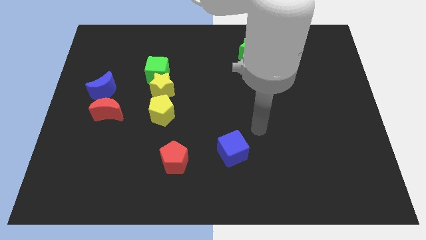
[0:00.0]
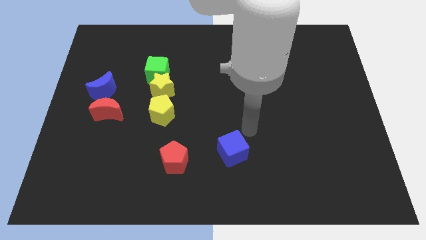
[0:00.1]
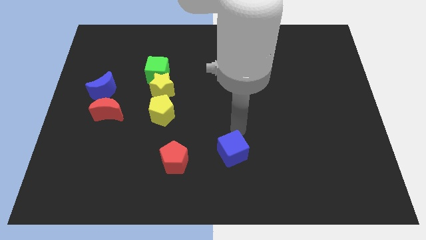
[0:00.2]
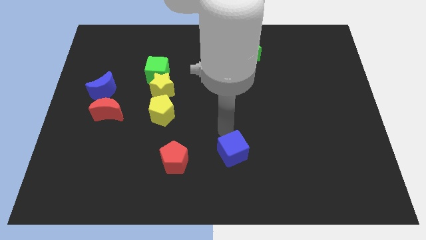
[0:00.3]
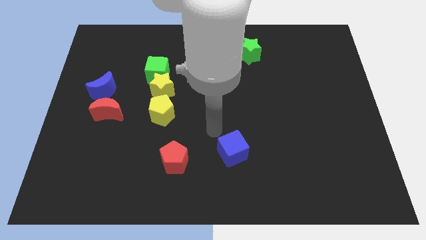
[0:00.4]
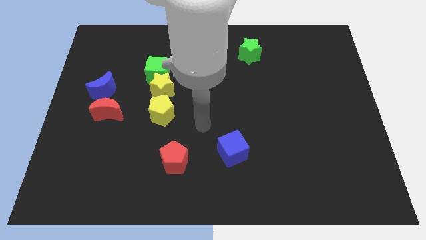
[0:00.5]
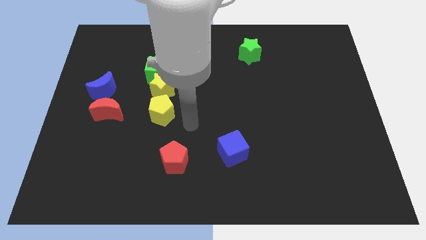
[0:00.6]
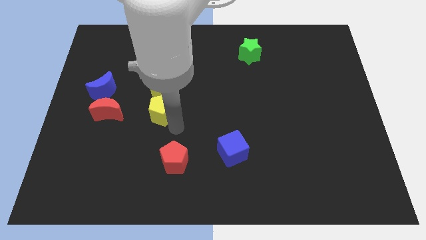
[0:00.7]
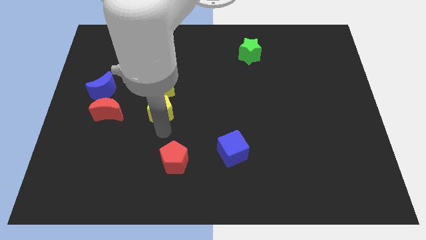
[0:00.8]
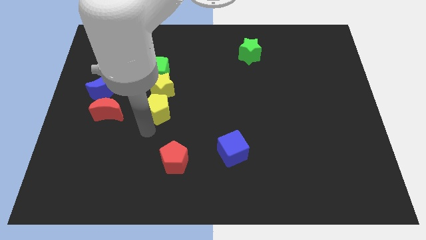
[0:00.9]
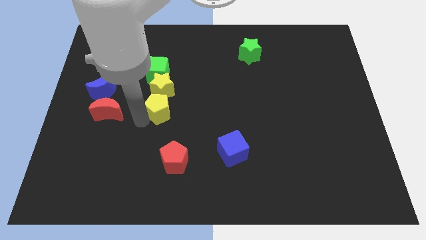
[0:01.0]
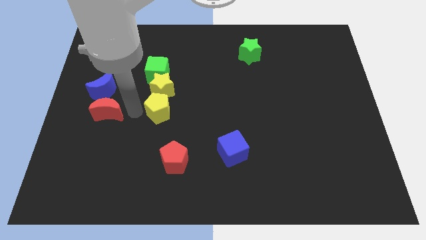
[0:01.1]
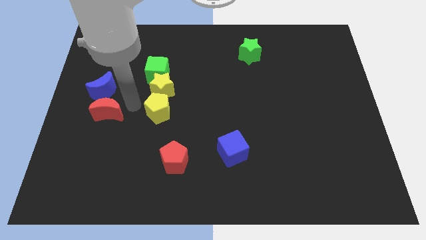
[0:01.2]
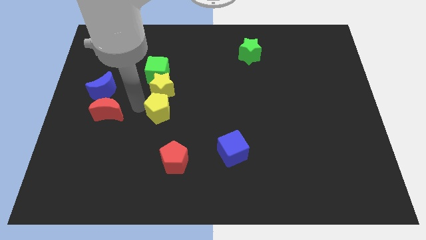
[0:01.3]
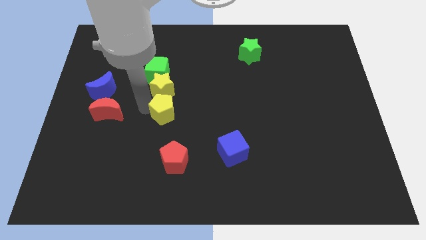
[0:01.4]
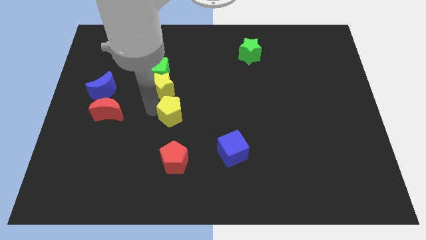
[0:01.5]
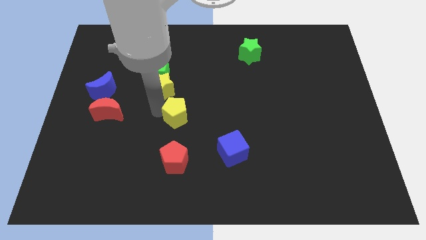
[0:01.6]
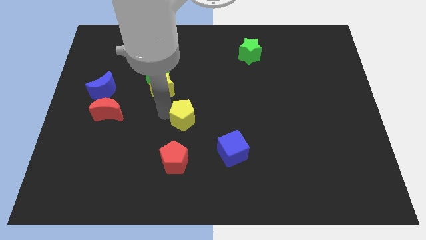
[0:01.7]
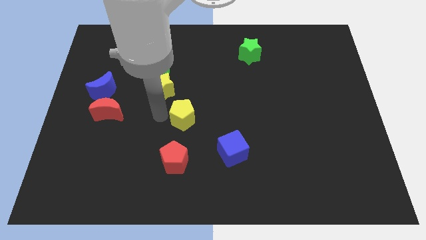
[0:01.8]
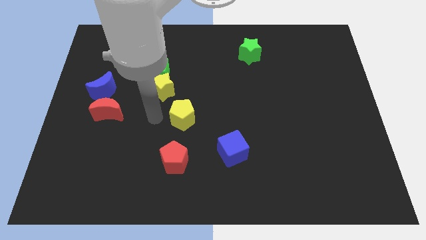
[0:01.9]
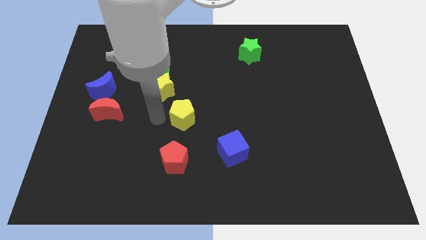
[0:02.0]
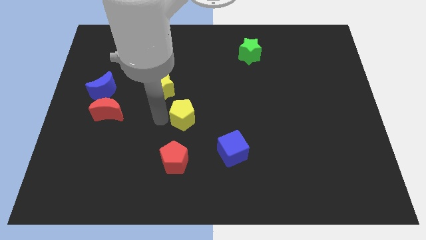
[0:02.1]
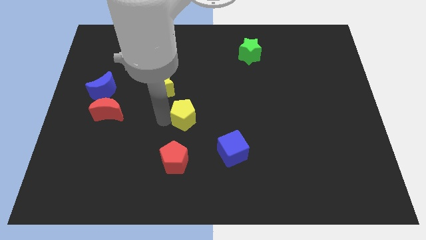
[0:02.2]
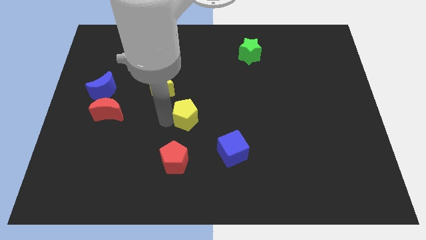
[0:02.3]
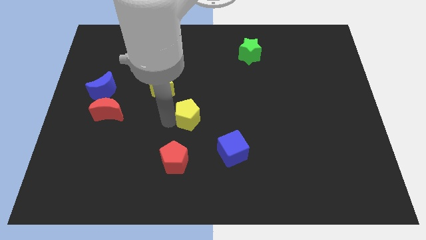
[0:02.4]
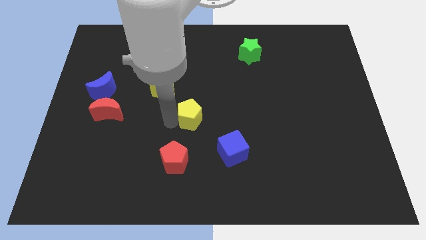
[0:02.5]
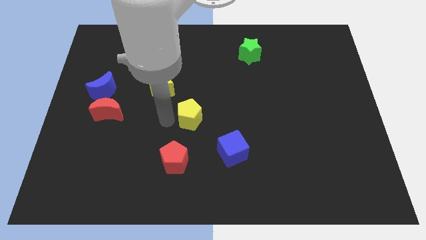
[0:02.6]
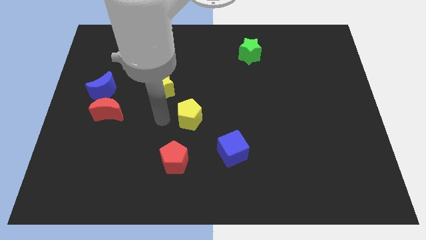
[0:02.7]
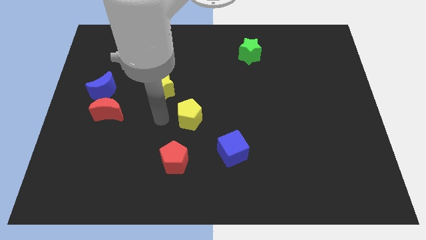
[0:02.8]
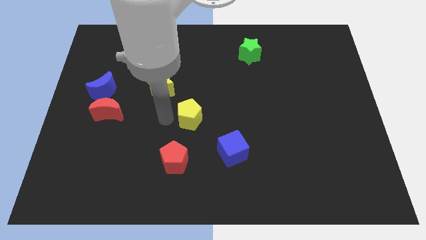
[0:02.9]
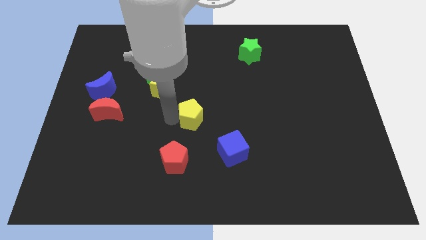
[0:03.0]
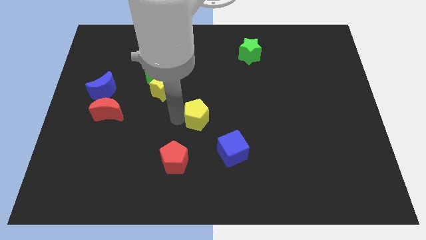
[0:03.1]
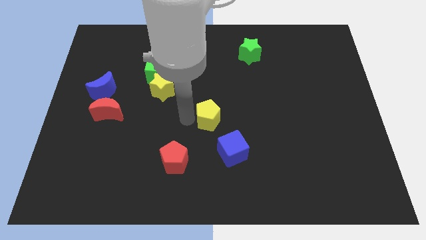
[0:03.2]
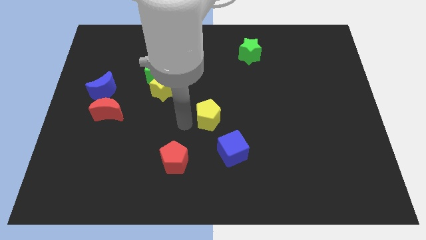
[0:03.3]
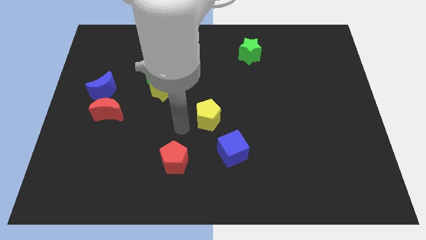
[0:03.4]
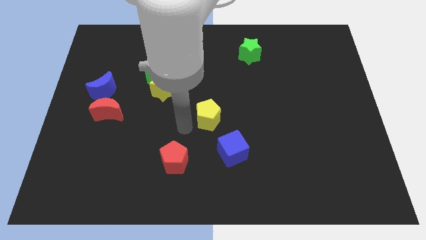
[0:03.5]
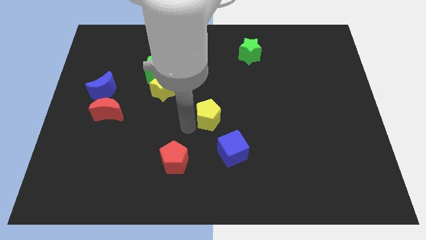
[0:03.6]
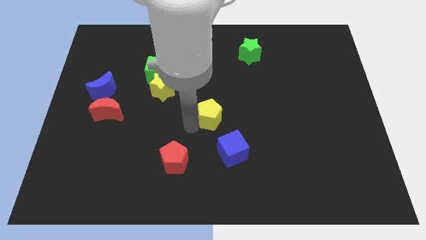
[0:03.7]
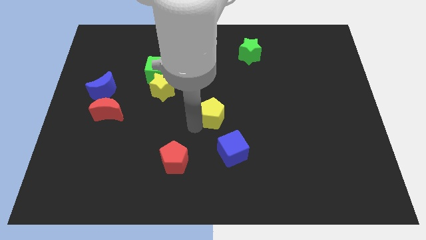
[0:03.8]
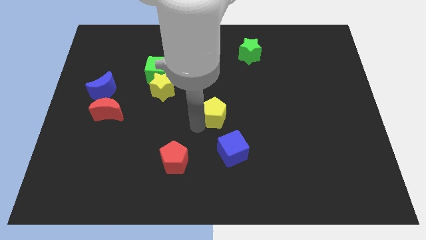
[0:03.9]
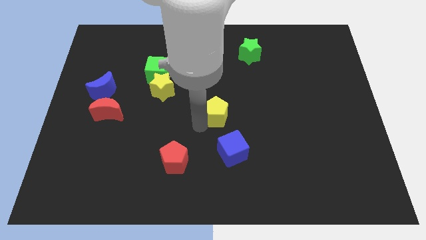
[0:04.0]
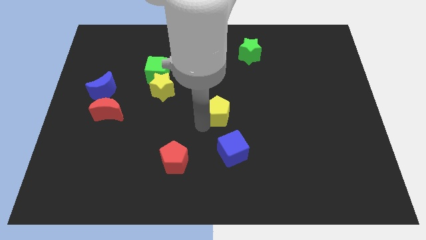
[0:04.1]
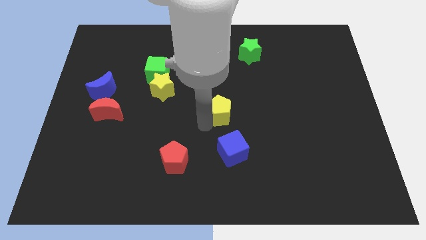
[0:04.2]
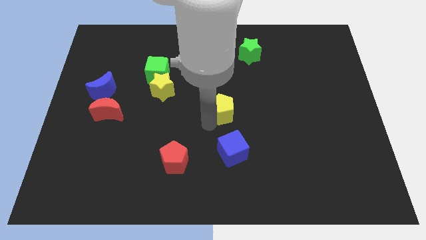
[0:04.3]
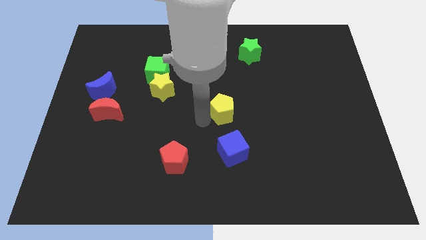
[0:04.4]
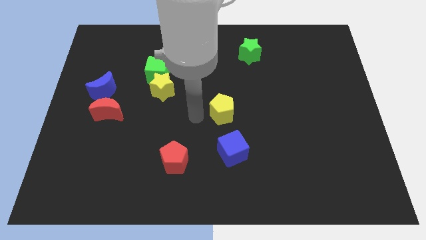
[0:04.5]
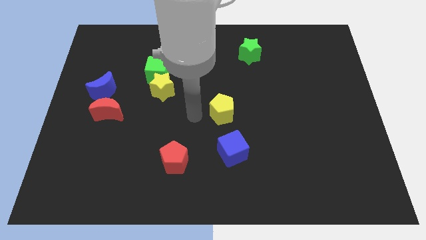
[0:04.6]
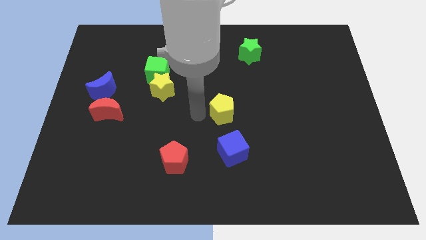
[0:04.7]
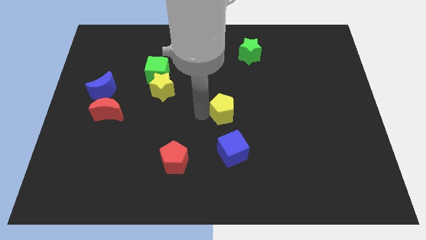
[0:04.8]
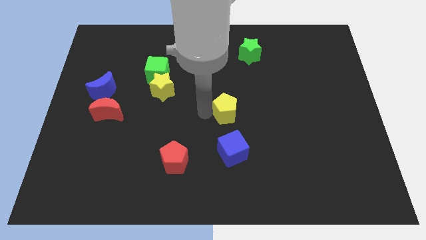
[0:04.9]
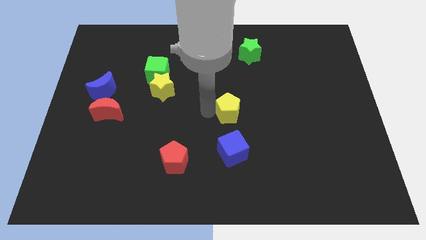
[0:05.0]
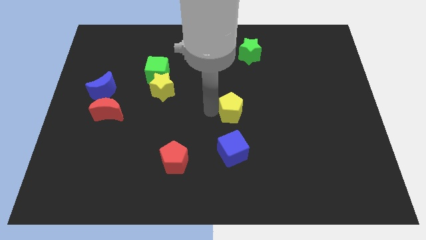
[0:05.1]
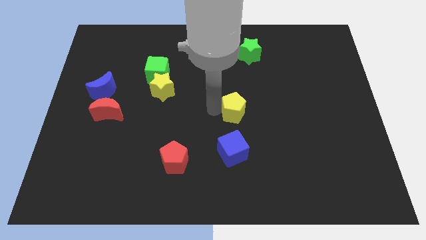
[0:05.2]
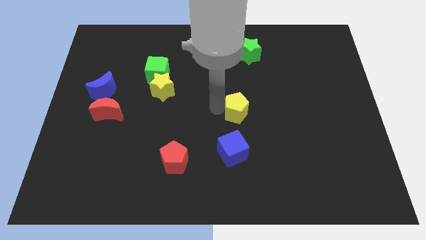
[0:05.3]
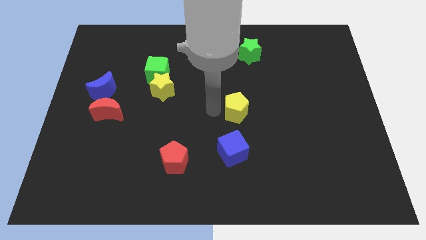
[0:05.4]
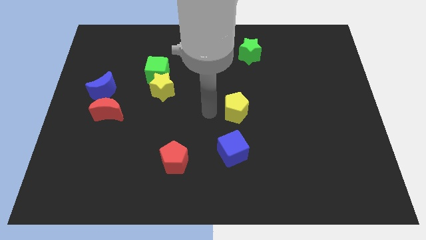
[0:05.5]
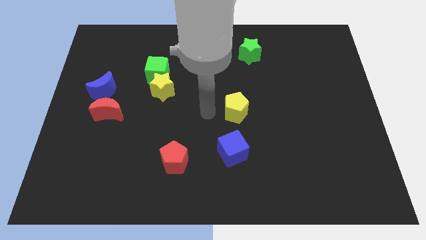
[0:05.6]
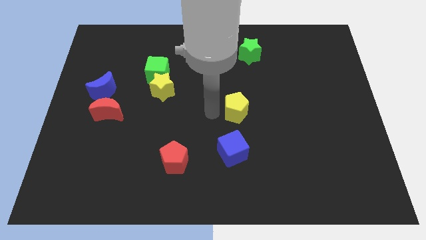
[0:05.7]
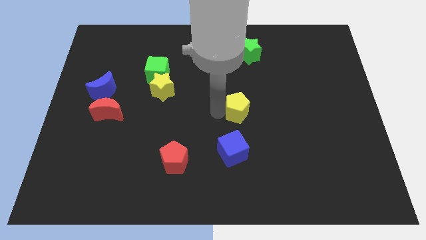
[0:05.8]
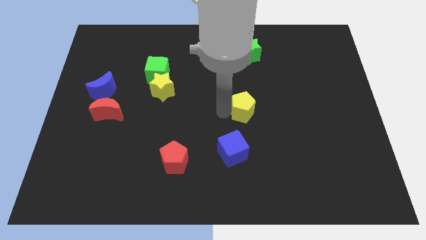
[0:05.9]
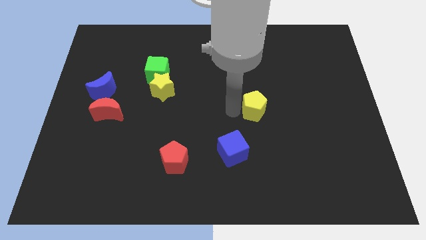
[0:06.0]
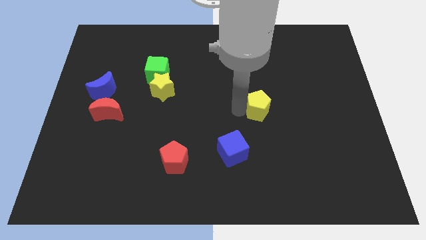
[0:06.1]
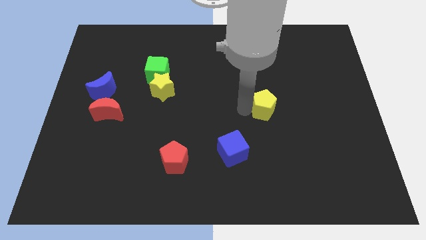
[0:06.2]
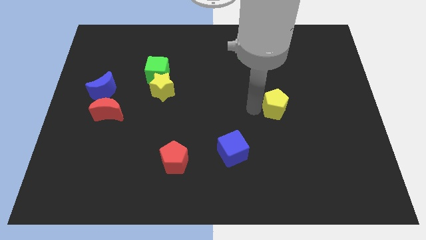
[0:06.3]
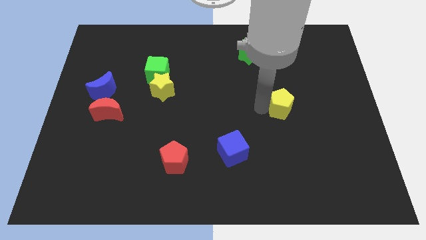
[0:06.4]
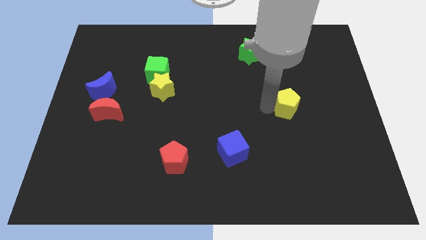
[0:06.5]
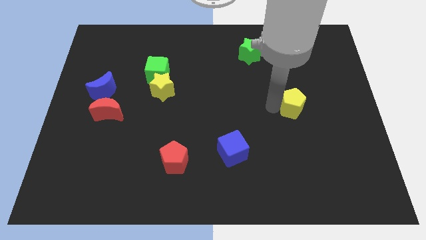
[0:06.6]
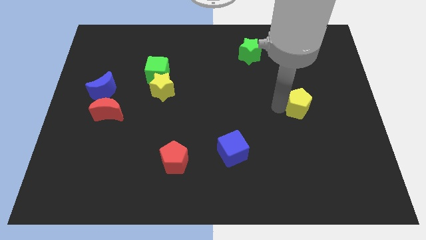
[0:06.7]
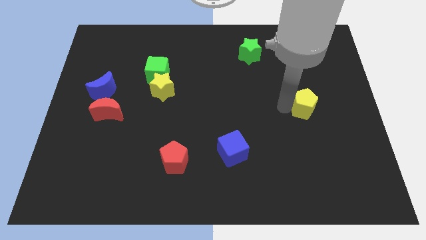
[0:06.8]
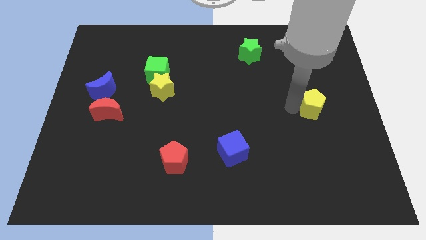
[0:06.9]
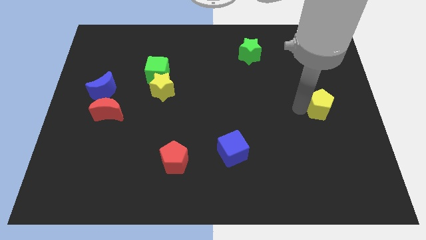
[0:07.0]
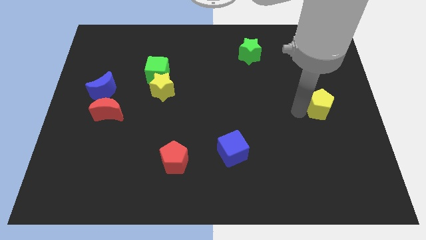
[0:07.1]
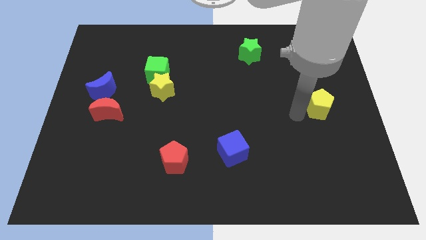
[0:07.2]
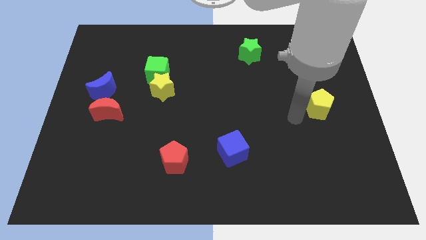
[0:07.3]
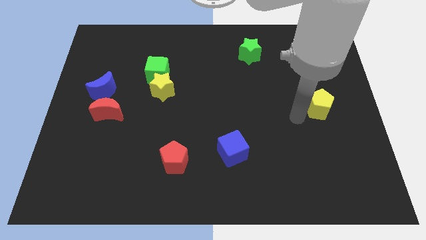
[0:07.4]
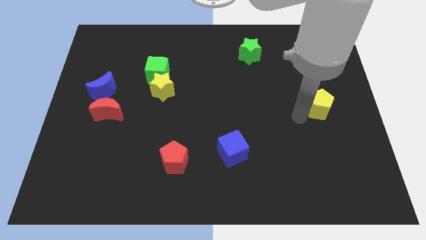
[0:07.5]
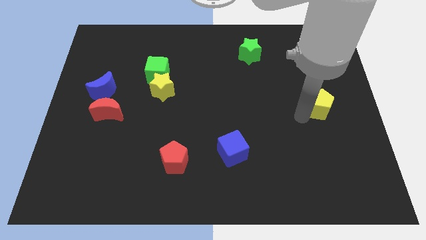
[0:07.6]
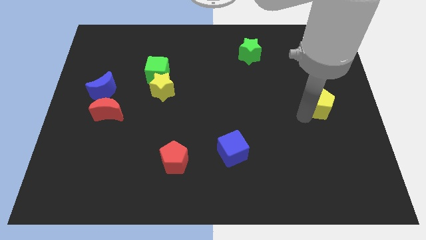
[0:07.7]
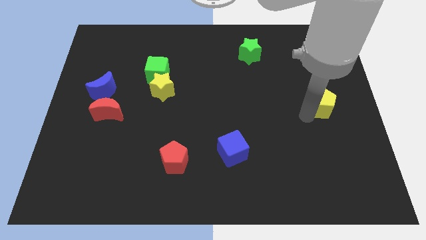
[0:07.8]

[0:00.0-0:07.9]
slide the yellow pentagon to the right side of the board
